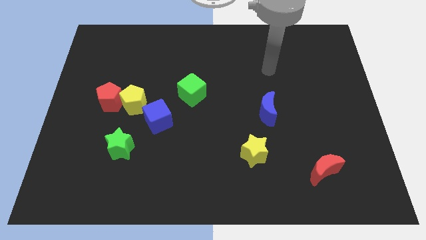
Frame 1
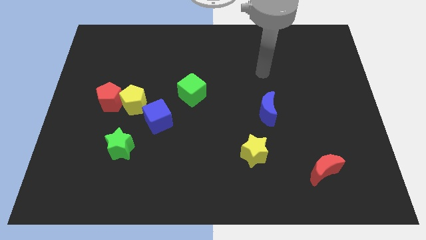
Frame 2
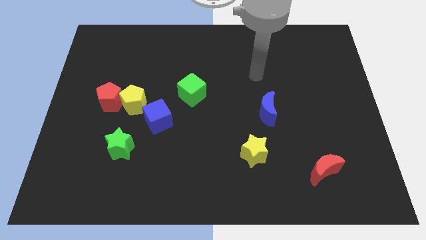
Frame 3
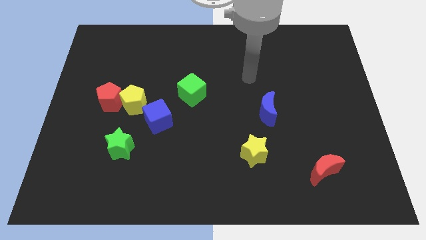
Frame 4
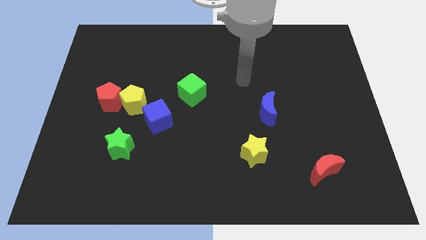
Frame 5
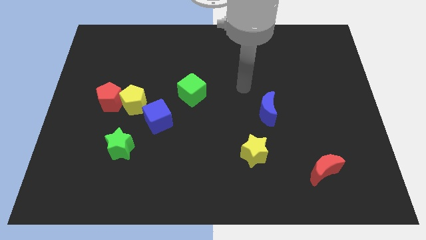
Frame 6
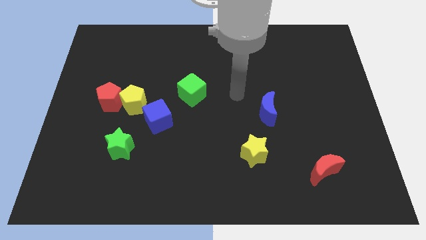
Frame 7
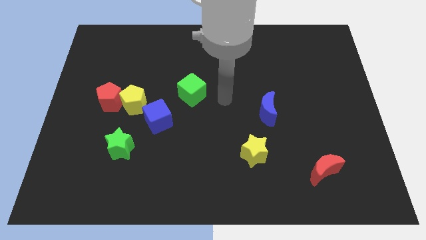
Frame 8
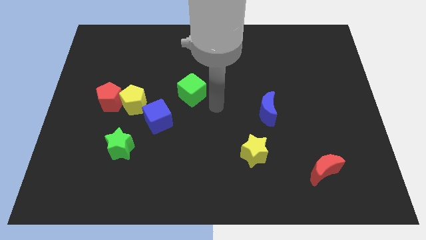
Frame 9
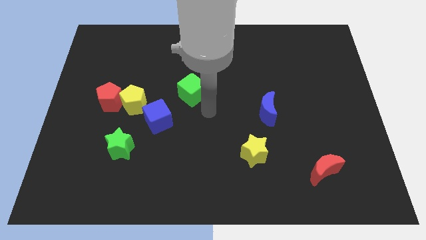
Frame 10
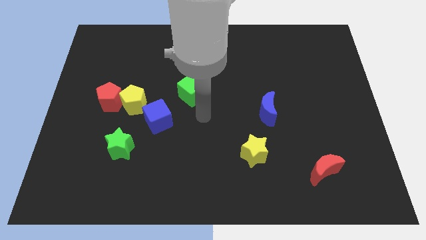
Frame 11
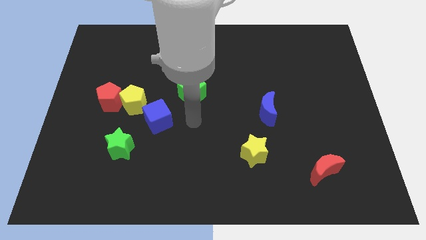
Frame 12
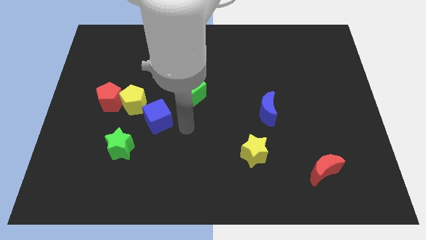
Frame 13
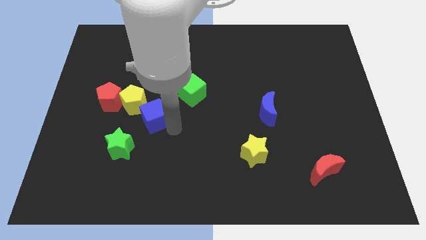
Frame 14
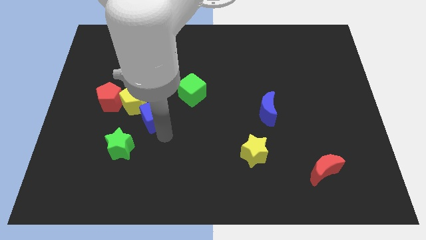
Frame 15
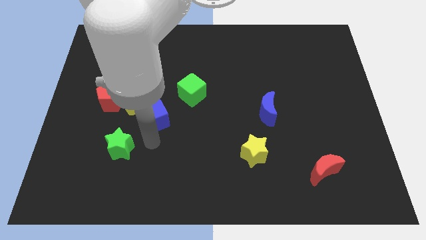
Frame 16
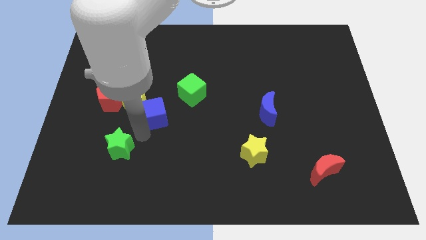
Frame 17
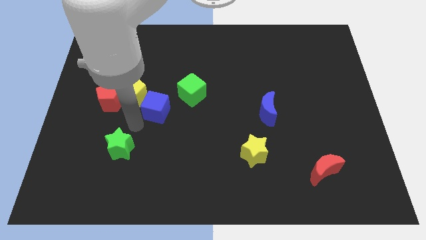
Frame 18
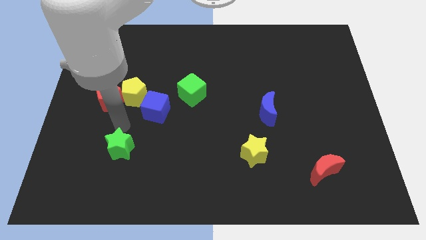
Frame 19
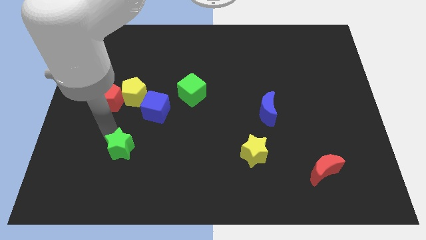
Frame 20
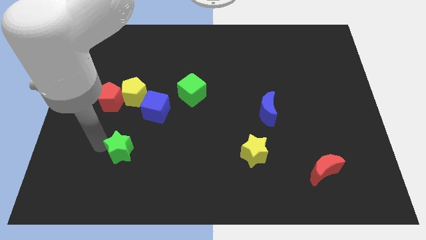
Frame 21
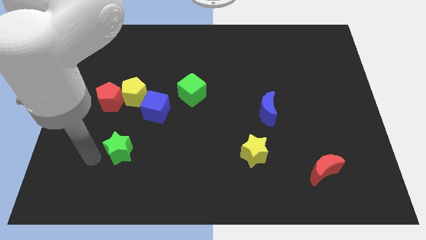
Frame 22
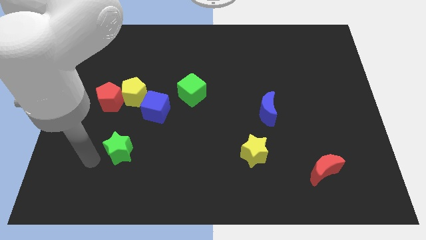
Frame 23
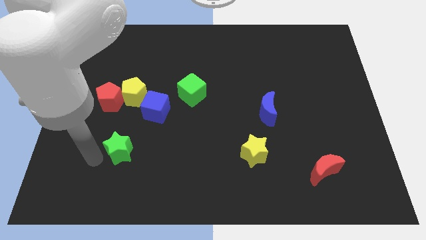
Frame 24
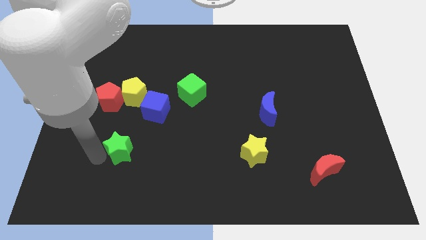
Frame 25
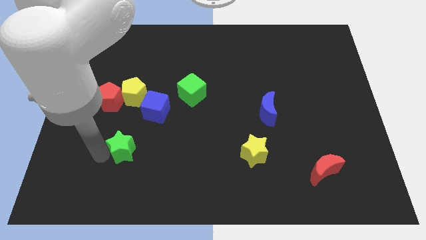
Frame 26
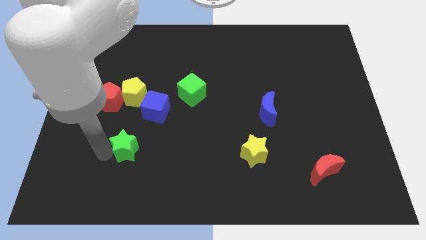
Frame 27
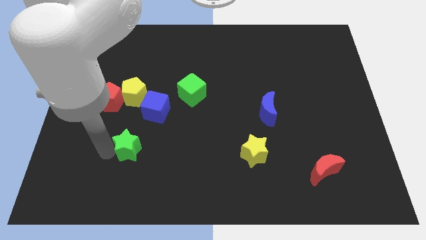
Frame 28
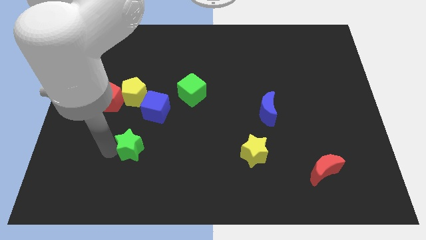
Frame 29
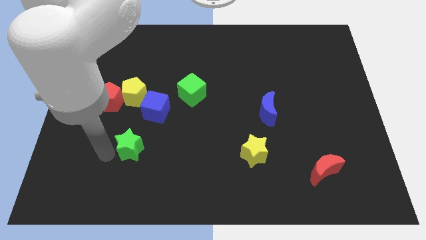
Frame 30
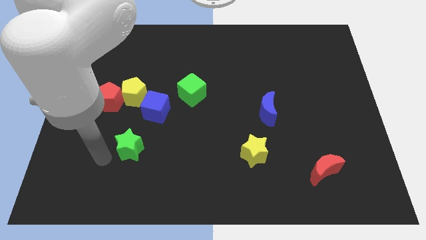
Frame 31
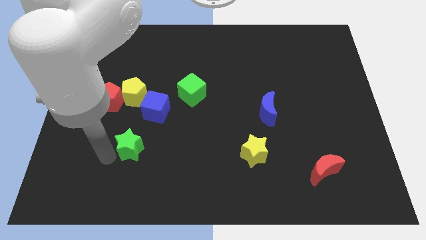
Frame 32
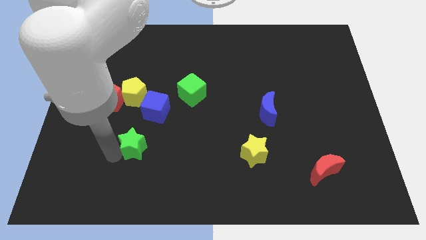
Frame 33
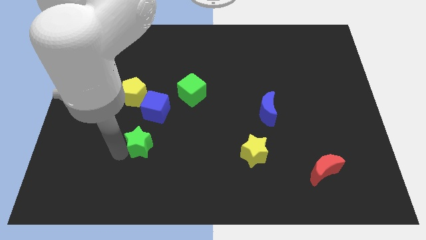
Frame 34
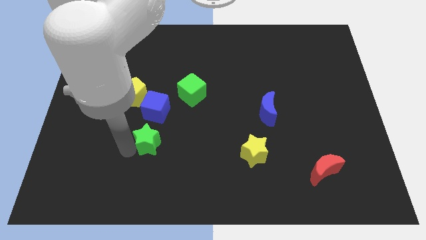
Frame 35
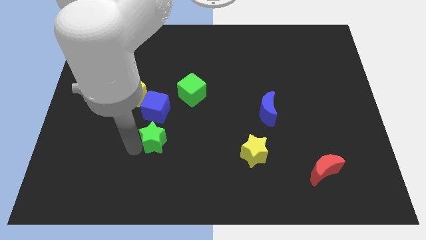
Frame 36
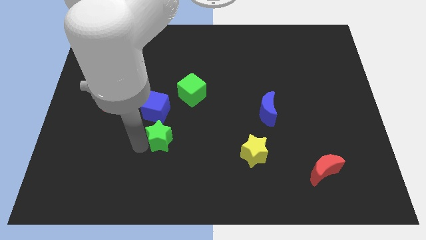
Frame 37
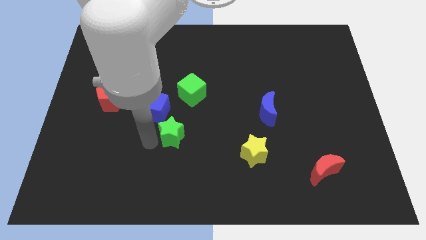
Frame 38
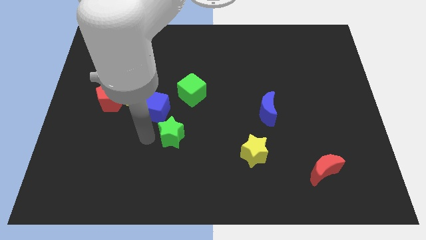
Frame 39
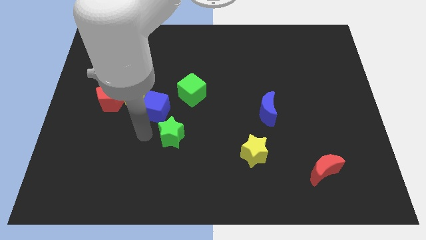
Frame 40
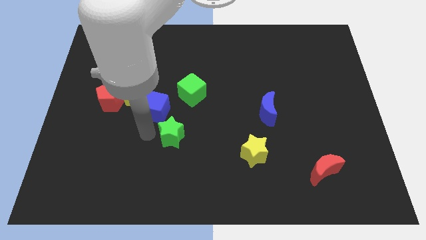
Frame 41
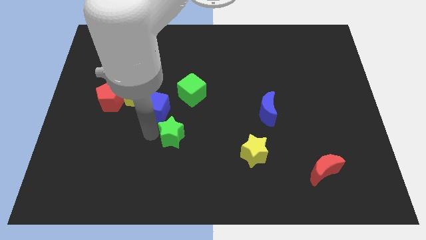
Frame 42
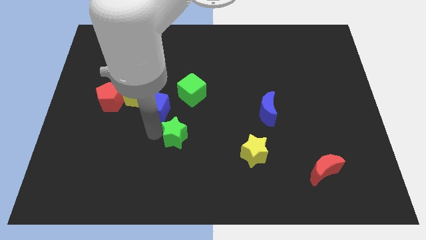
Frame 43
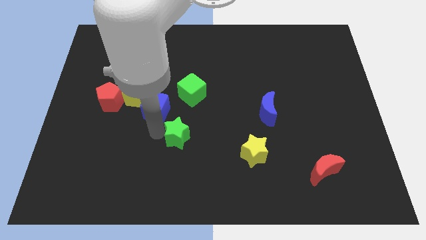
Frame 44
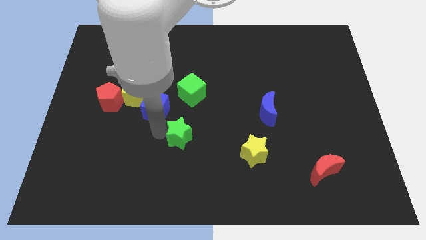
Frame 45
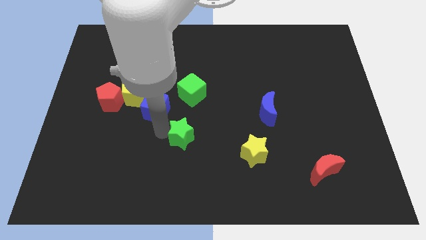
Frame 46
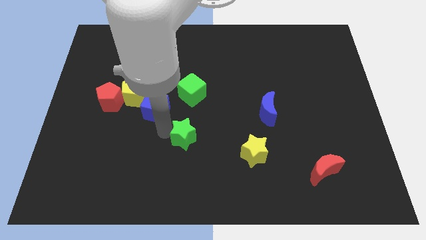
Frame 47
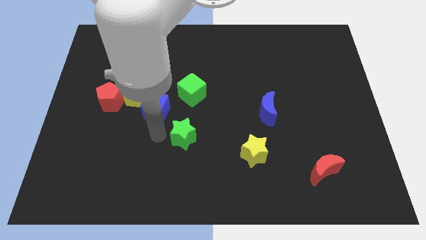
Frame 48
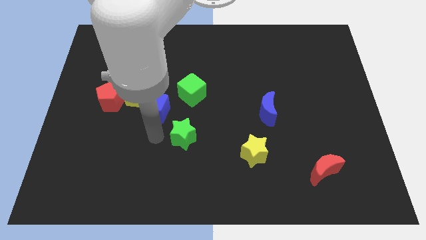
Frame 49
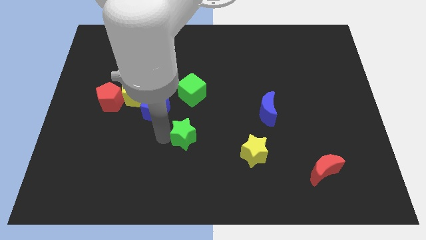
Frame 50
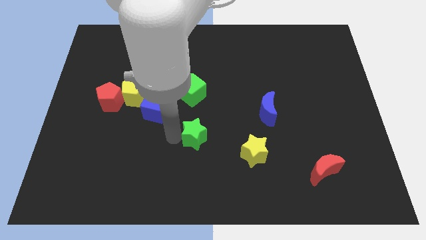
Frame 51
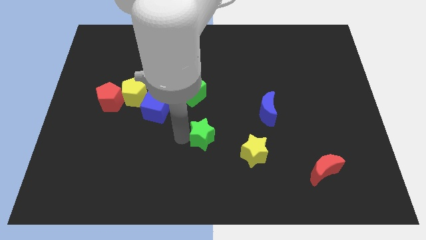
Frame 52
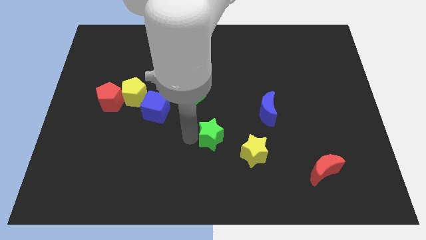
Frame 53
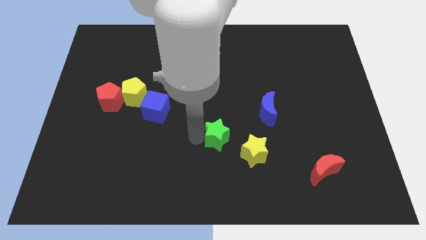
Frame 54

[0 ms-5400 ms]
slide the green star right

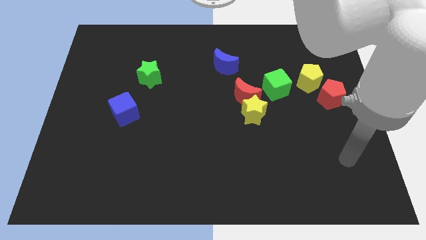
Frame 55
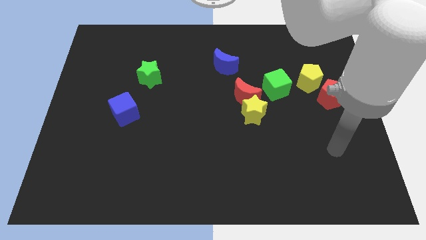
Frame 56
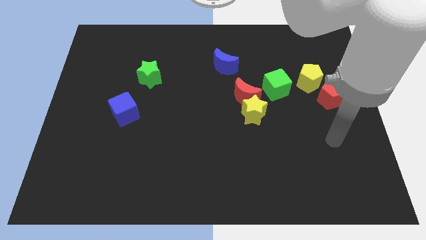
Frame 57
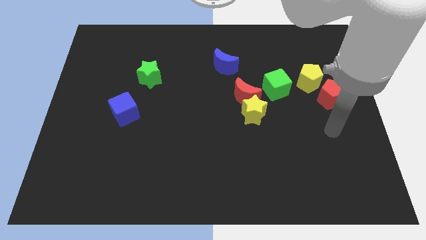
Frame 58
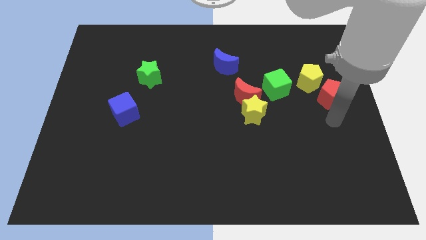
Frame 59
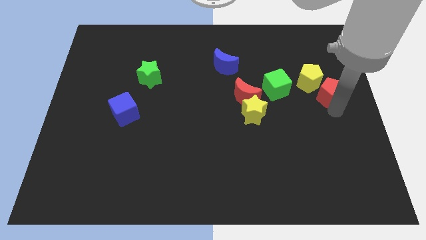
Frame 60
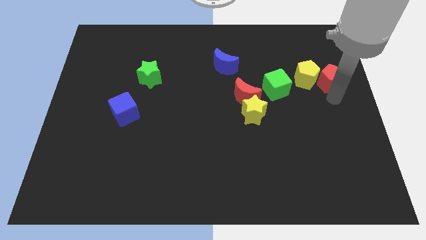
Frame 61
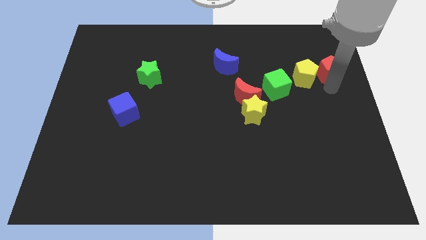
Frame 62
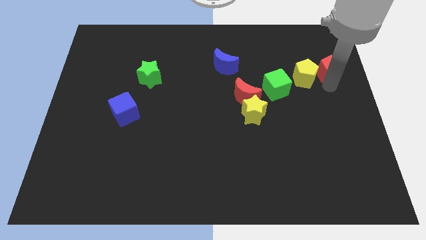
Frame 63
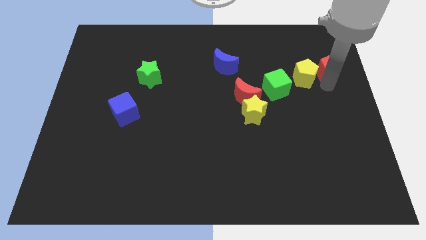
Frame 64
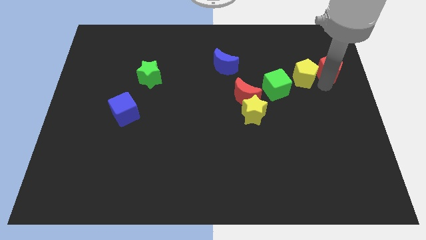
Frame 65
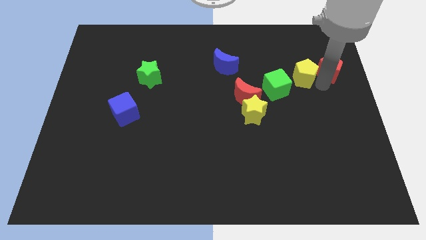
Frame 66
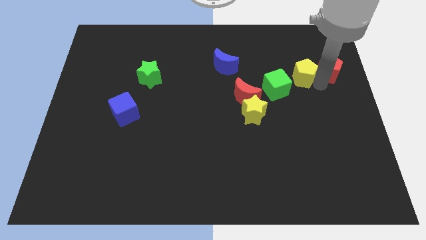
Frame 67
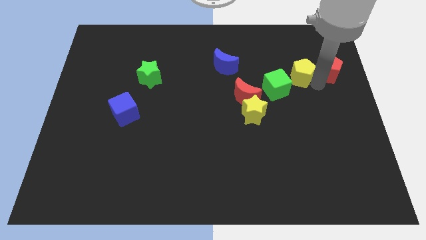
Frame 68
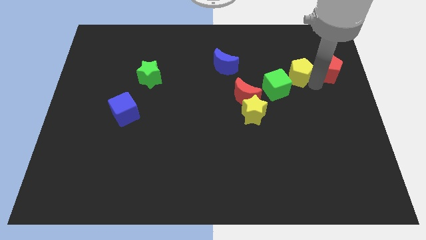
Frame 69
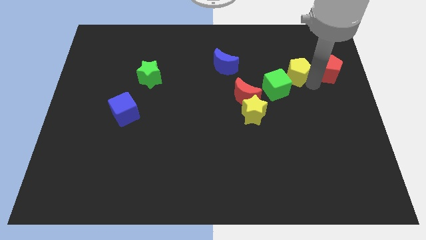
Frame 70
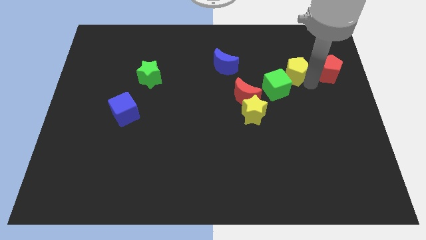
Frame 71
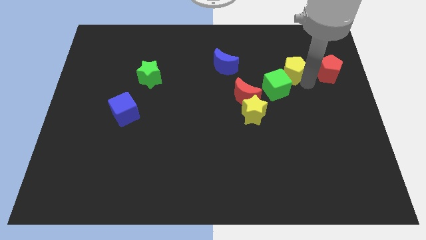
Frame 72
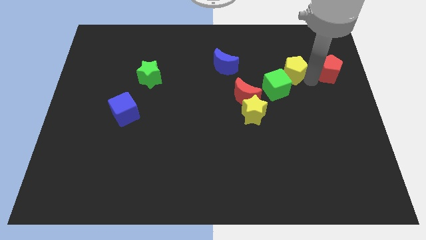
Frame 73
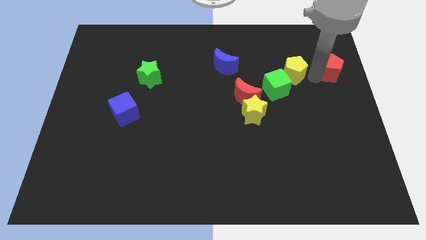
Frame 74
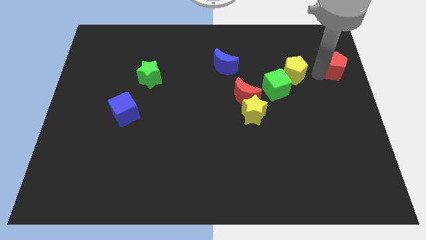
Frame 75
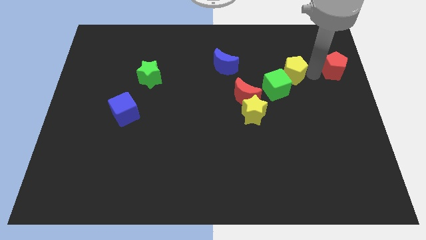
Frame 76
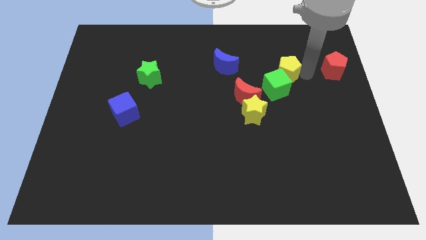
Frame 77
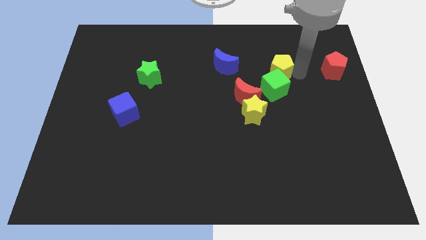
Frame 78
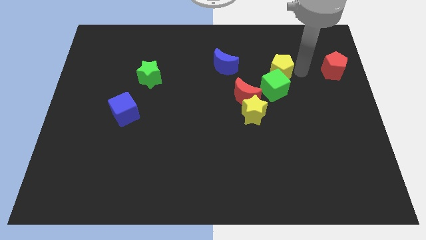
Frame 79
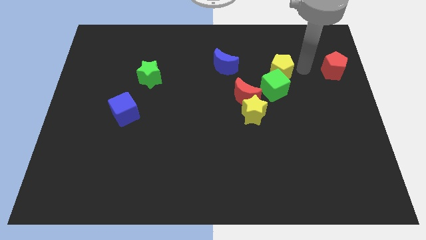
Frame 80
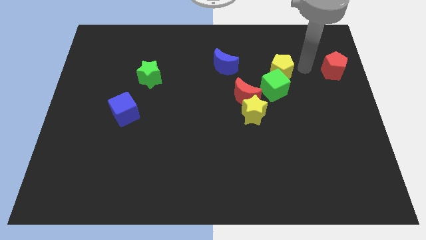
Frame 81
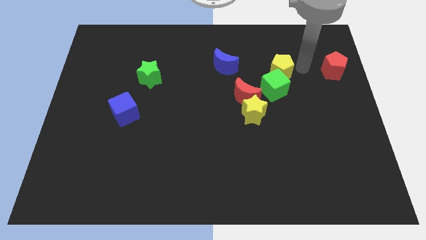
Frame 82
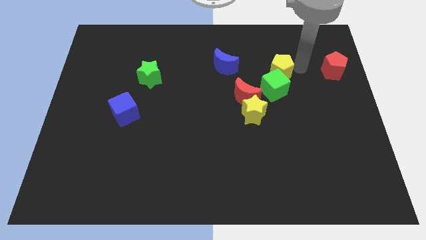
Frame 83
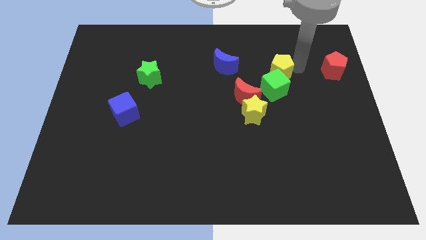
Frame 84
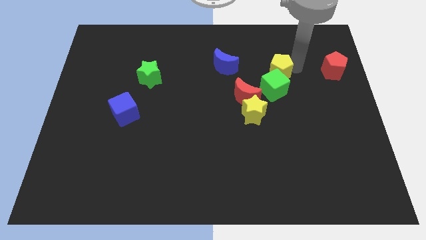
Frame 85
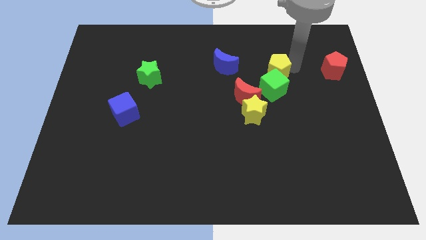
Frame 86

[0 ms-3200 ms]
push the yellow pentagon a bit to the left
